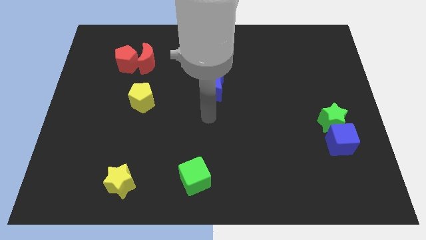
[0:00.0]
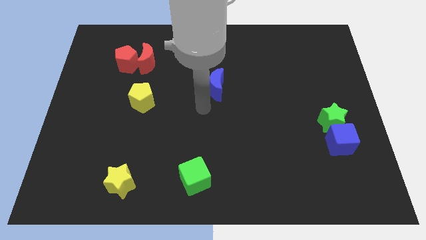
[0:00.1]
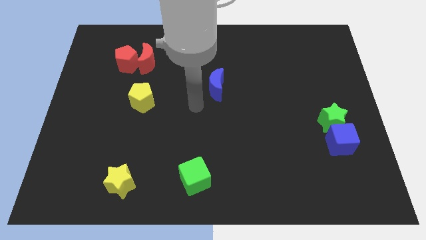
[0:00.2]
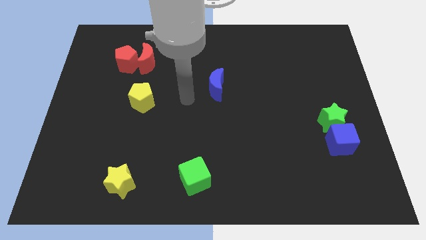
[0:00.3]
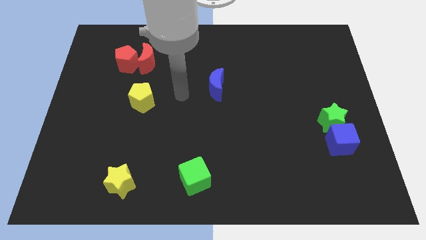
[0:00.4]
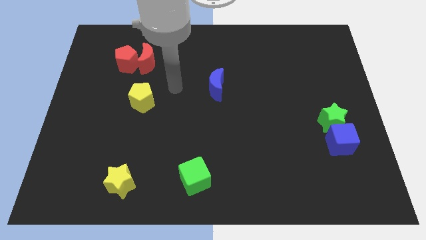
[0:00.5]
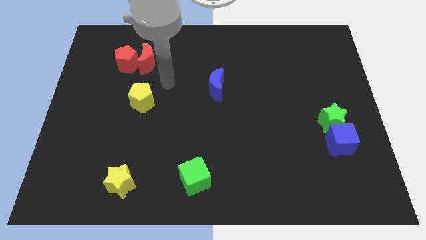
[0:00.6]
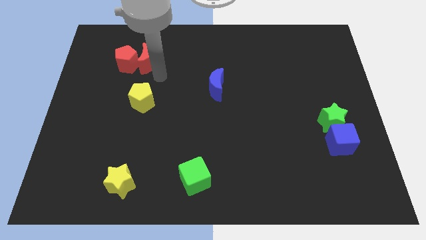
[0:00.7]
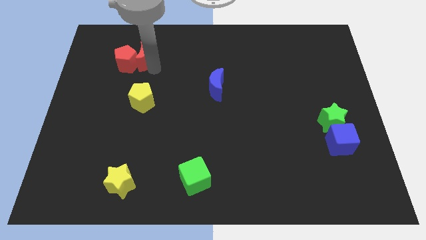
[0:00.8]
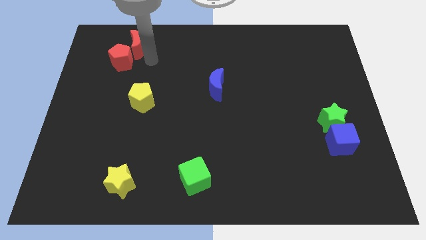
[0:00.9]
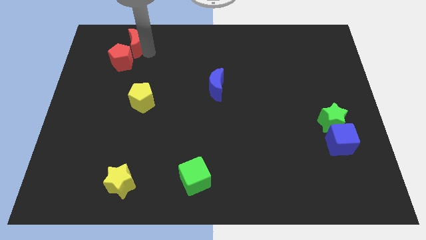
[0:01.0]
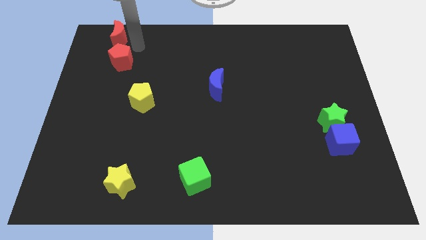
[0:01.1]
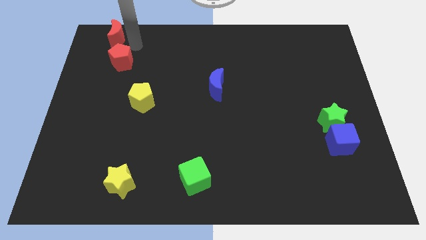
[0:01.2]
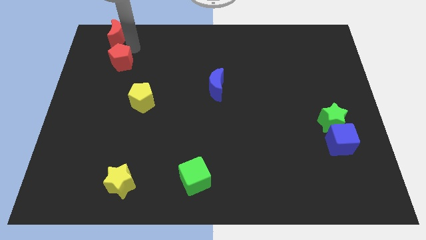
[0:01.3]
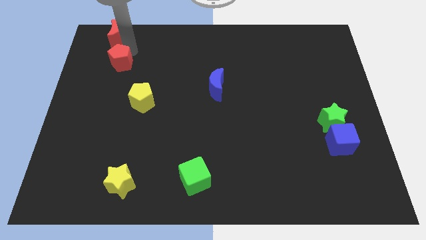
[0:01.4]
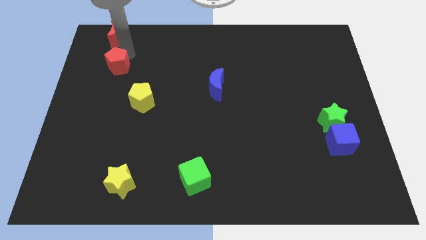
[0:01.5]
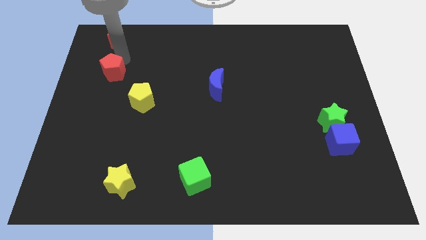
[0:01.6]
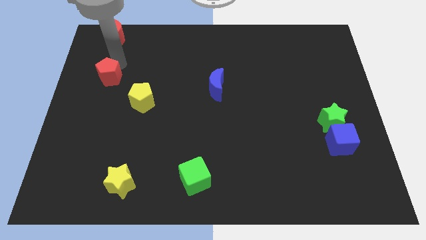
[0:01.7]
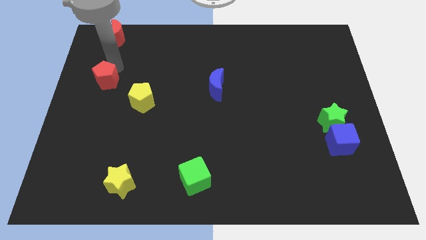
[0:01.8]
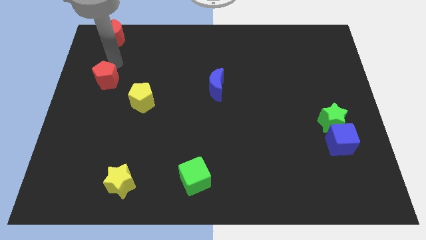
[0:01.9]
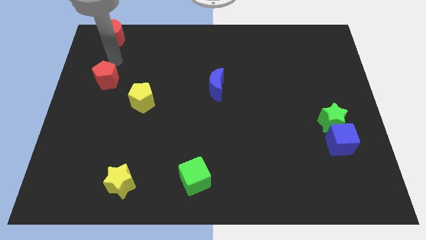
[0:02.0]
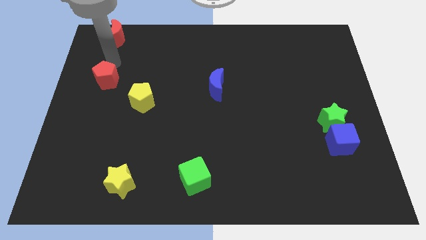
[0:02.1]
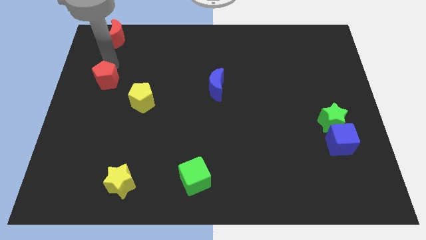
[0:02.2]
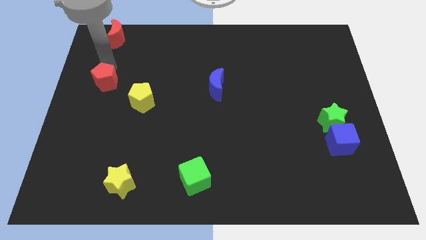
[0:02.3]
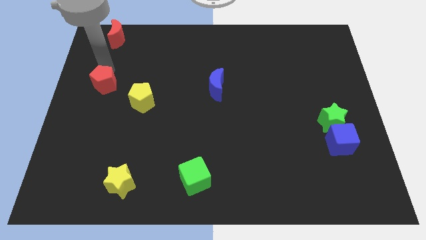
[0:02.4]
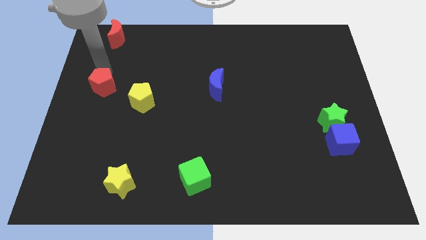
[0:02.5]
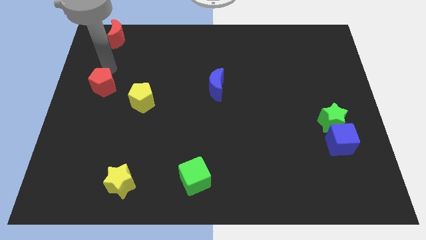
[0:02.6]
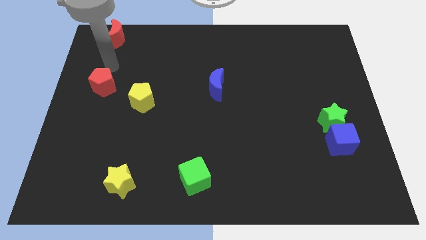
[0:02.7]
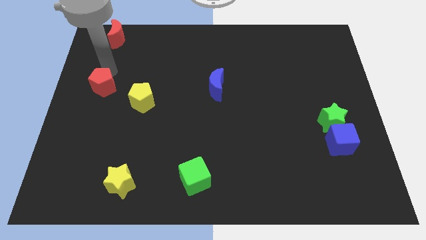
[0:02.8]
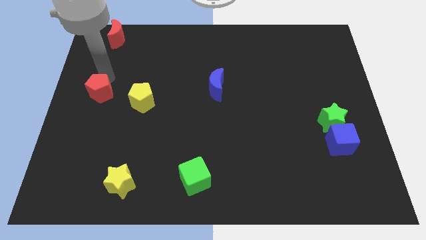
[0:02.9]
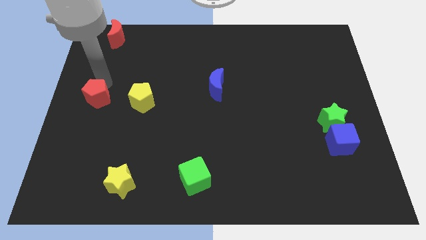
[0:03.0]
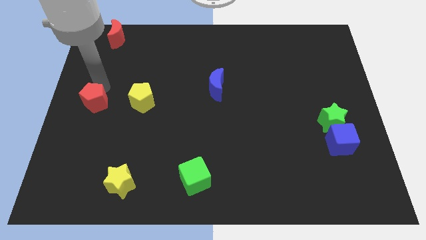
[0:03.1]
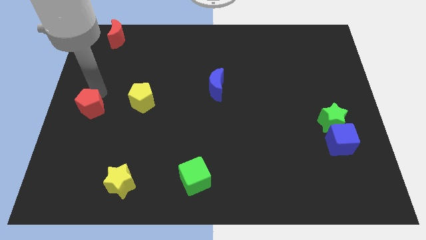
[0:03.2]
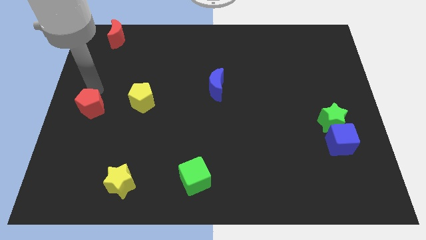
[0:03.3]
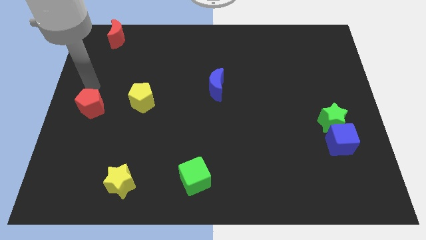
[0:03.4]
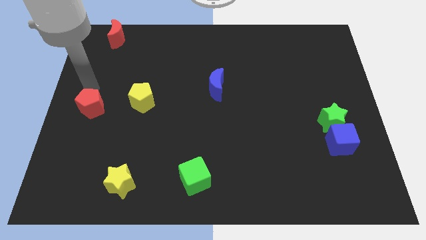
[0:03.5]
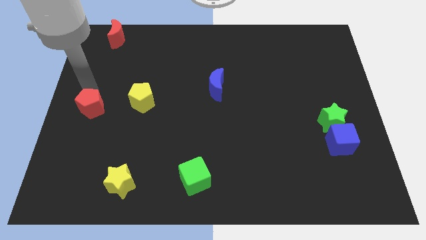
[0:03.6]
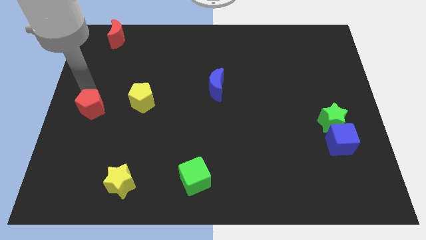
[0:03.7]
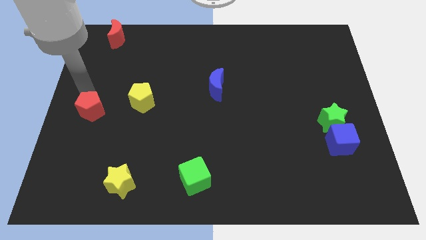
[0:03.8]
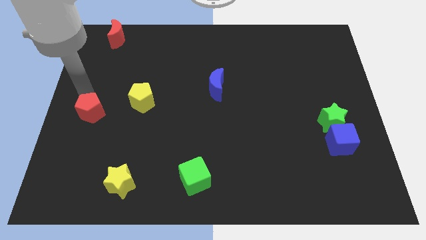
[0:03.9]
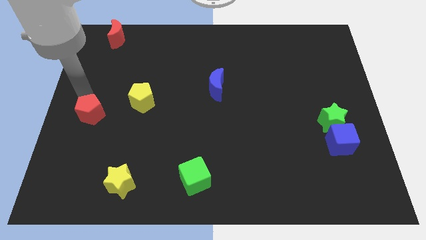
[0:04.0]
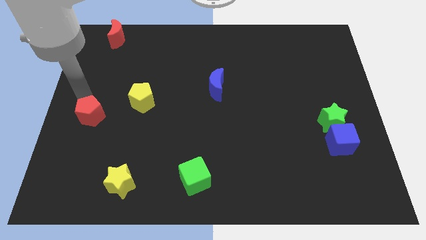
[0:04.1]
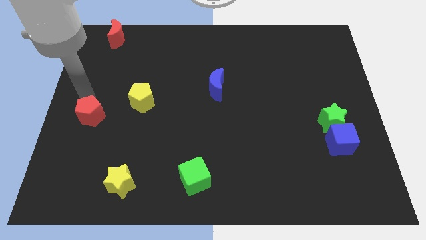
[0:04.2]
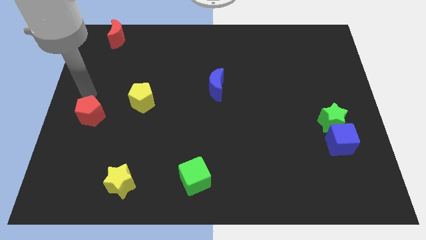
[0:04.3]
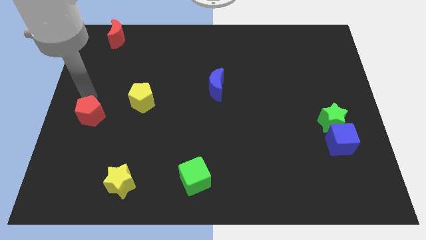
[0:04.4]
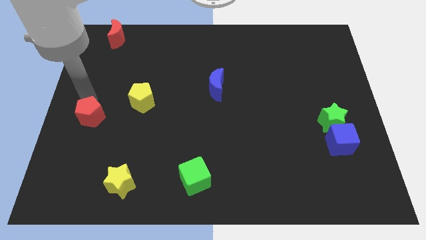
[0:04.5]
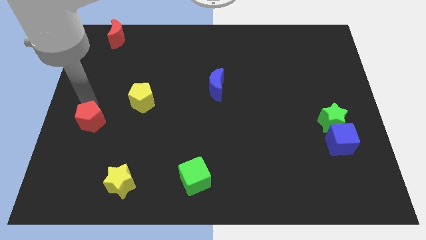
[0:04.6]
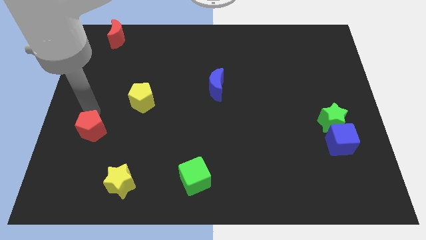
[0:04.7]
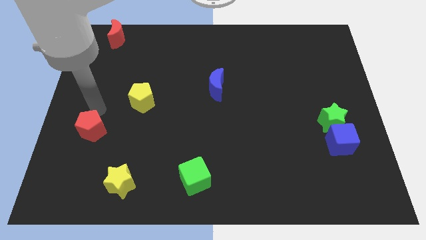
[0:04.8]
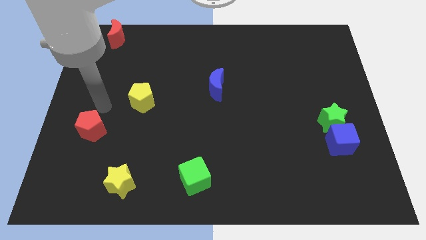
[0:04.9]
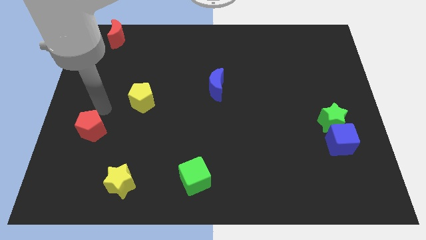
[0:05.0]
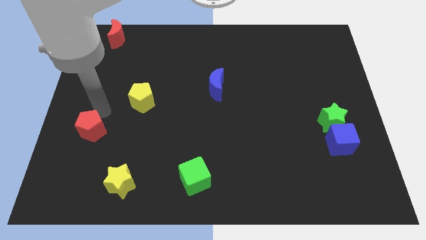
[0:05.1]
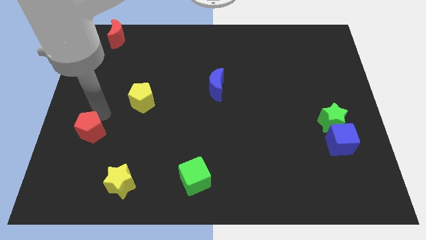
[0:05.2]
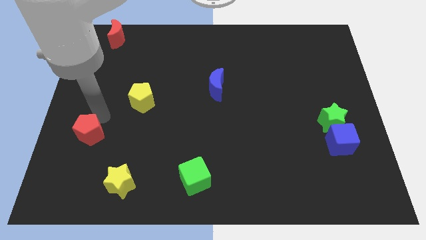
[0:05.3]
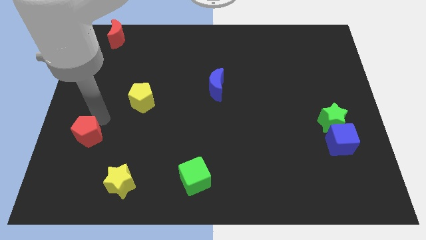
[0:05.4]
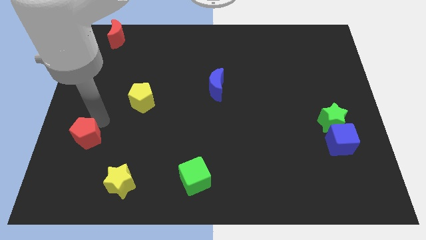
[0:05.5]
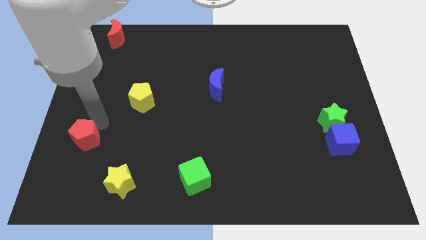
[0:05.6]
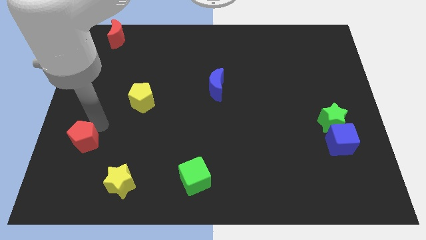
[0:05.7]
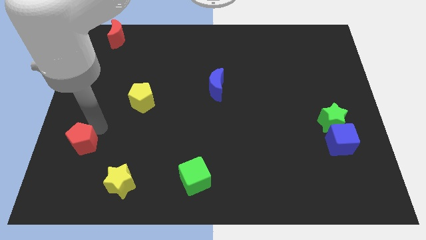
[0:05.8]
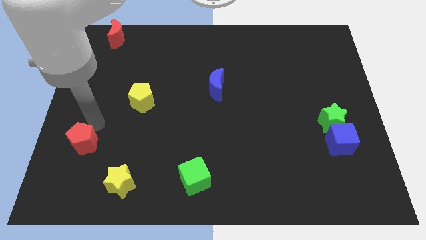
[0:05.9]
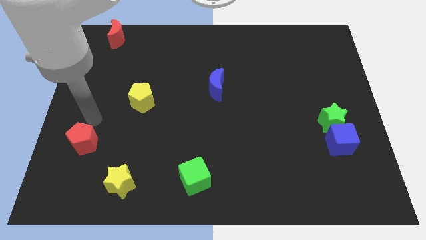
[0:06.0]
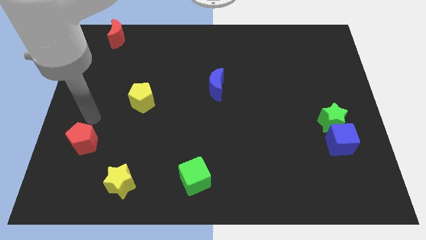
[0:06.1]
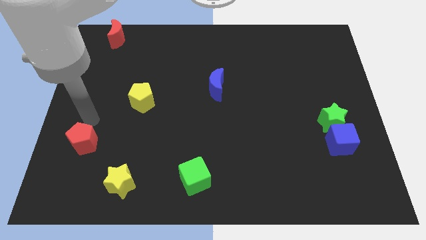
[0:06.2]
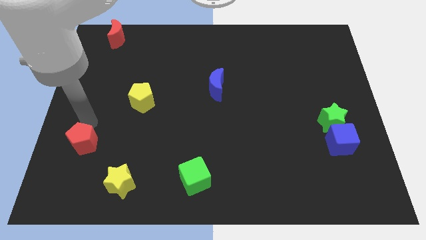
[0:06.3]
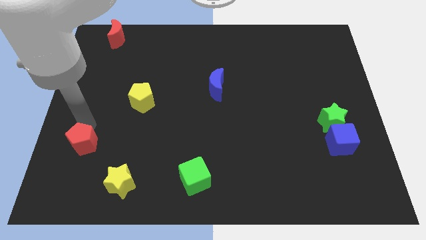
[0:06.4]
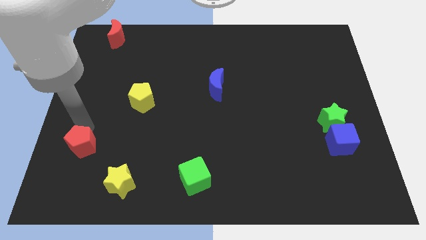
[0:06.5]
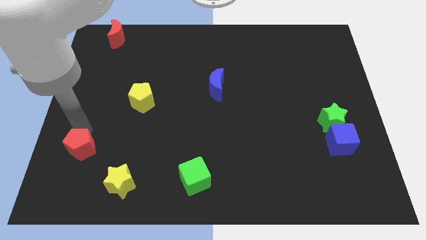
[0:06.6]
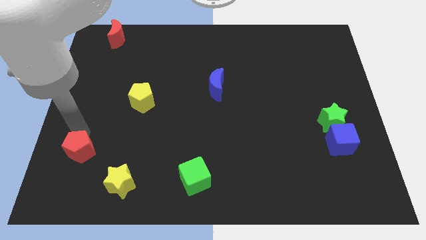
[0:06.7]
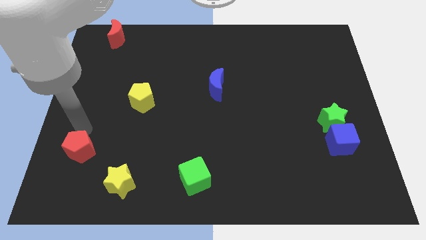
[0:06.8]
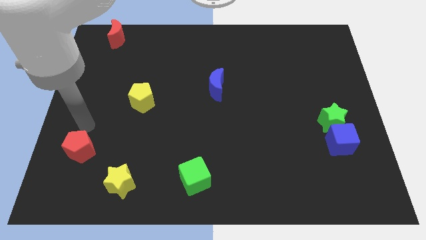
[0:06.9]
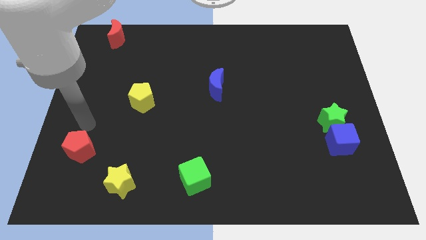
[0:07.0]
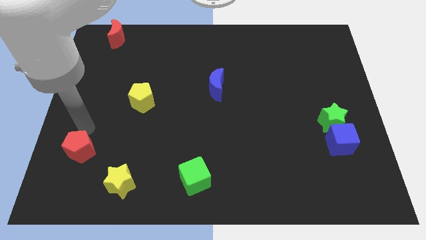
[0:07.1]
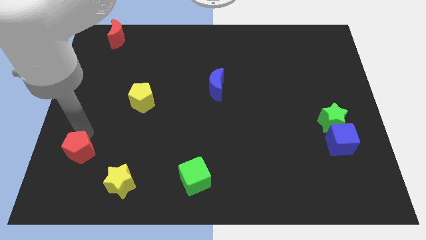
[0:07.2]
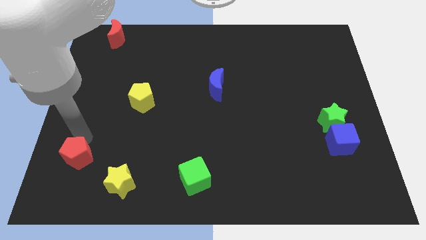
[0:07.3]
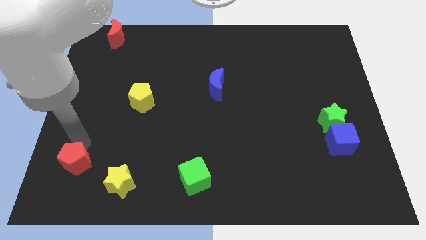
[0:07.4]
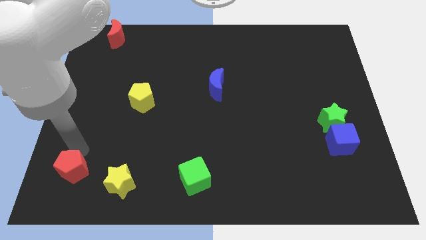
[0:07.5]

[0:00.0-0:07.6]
put the red pentagon to the left side of the yellow star
